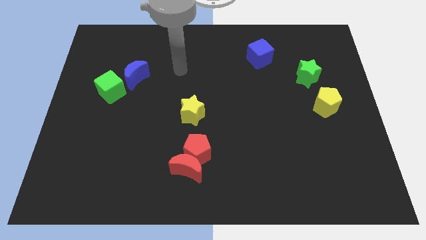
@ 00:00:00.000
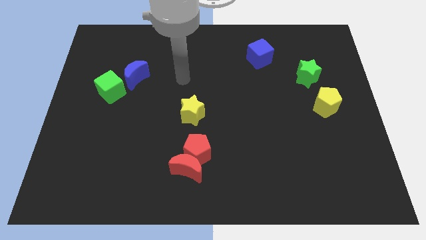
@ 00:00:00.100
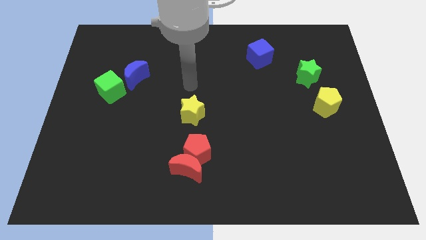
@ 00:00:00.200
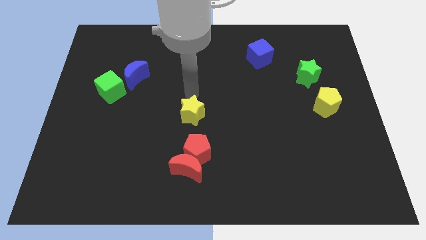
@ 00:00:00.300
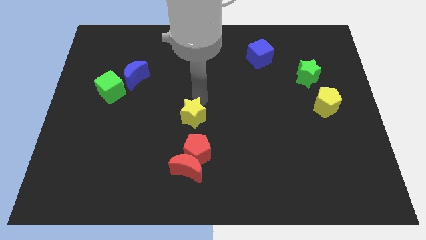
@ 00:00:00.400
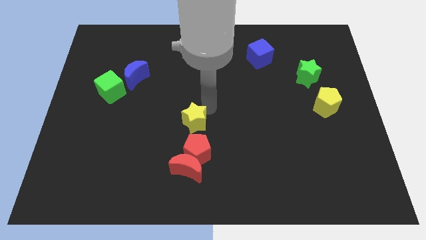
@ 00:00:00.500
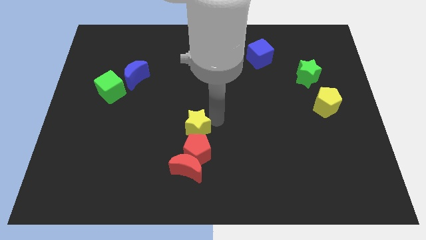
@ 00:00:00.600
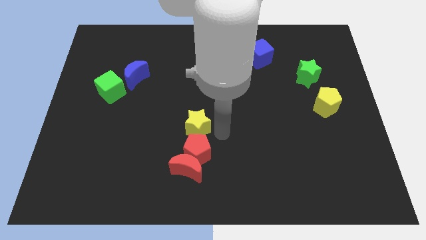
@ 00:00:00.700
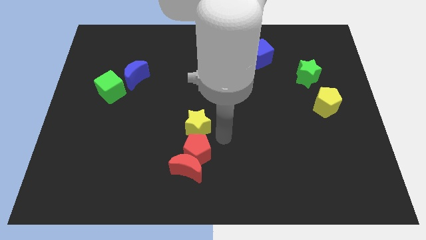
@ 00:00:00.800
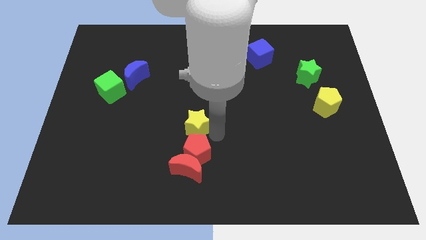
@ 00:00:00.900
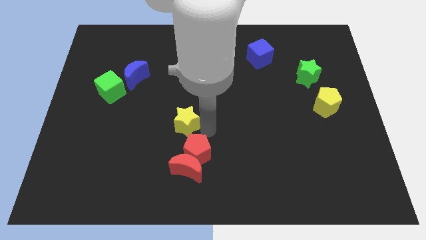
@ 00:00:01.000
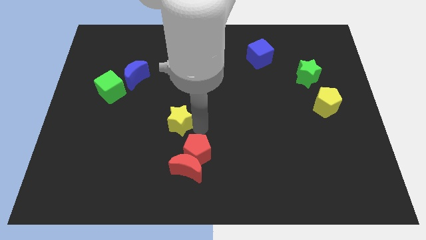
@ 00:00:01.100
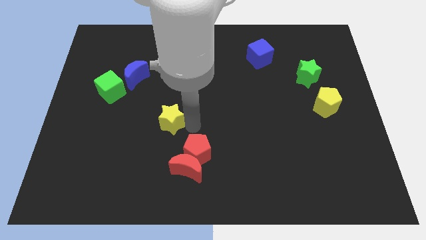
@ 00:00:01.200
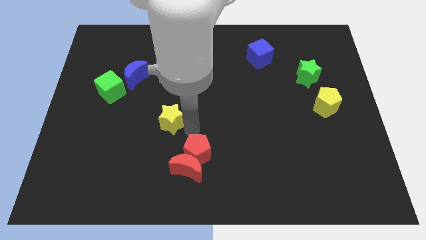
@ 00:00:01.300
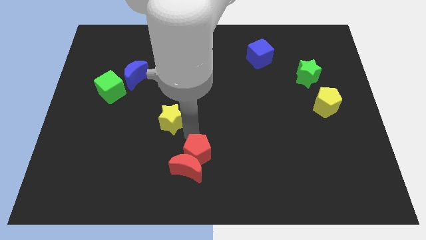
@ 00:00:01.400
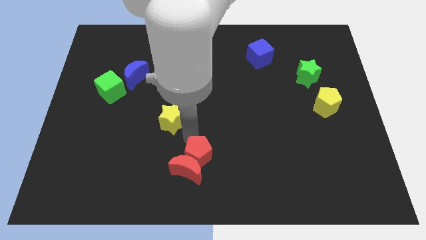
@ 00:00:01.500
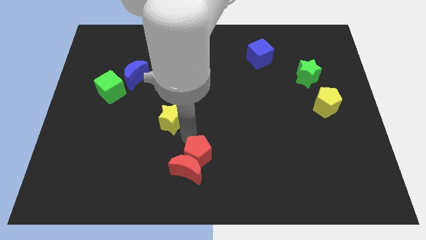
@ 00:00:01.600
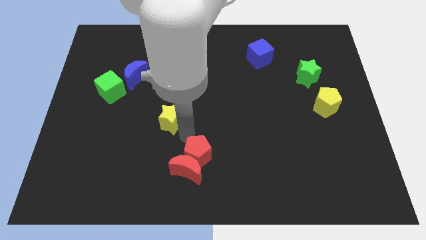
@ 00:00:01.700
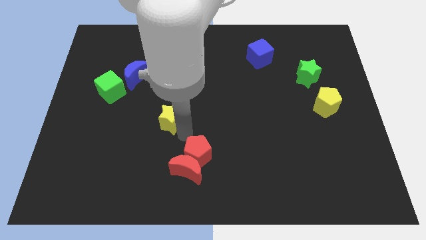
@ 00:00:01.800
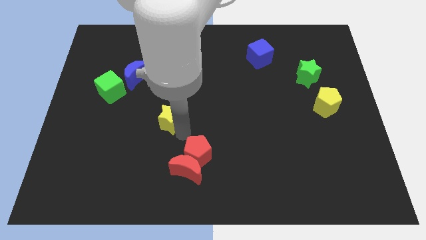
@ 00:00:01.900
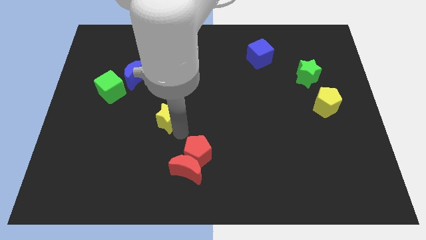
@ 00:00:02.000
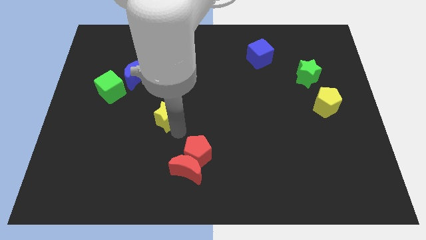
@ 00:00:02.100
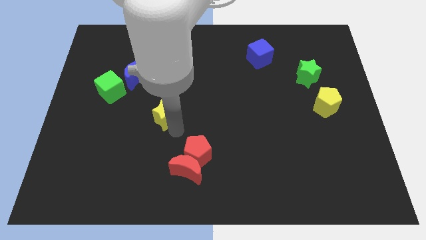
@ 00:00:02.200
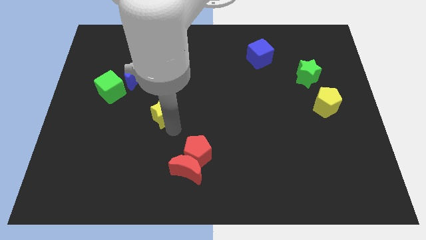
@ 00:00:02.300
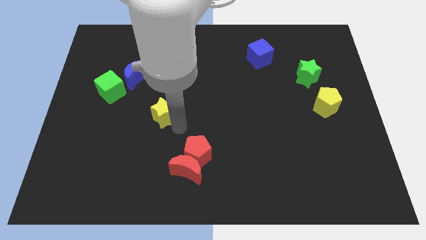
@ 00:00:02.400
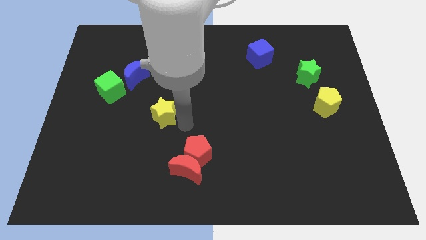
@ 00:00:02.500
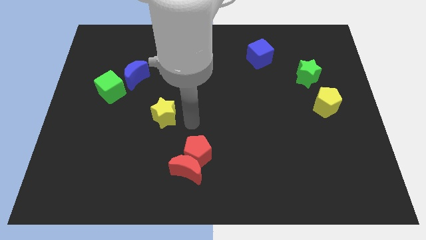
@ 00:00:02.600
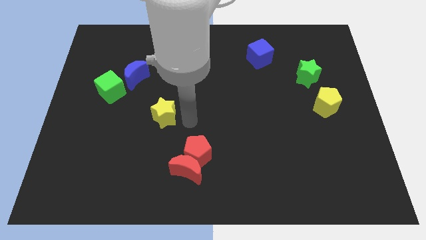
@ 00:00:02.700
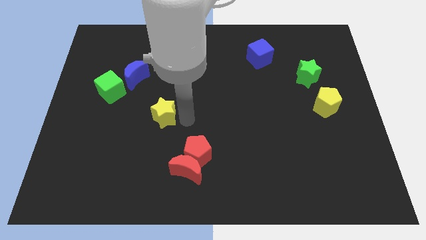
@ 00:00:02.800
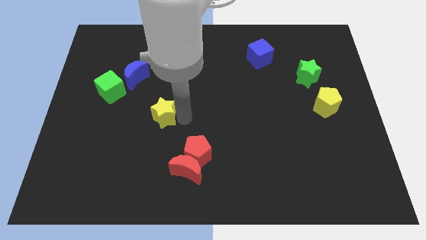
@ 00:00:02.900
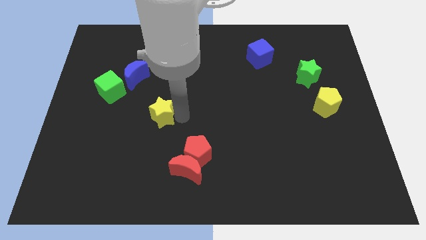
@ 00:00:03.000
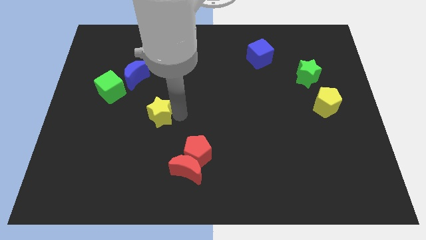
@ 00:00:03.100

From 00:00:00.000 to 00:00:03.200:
slightly slide the yellow star left

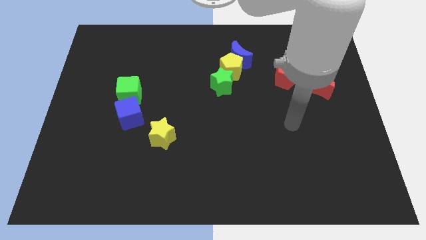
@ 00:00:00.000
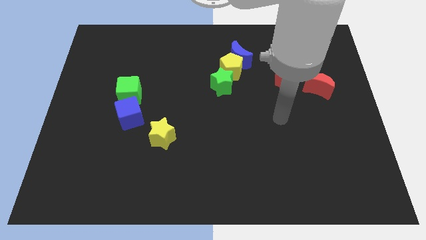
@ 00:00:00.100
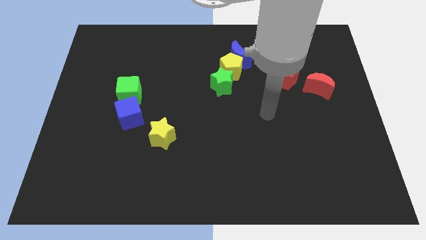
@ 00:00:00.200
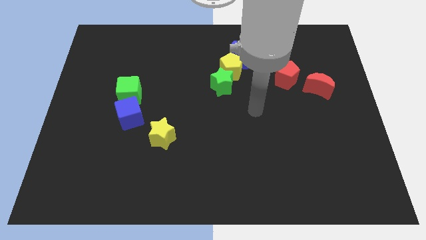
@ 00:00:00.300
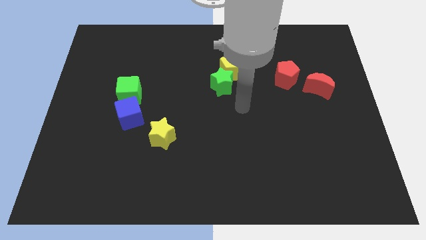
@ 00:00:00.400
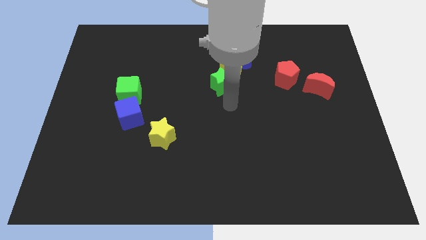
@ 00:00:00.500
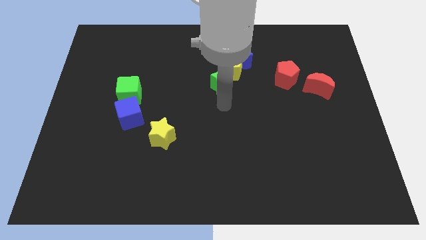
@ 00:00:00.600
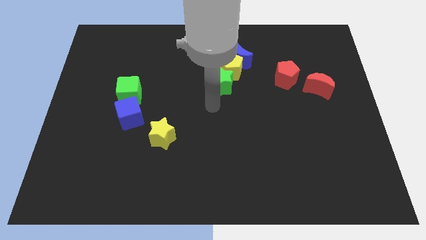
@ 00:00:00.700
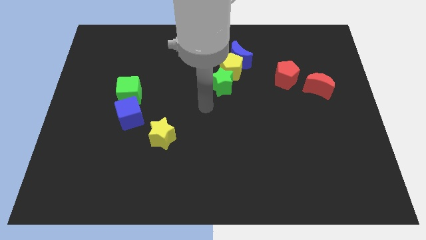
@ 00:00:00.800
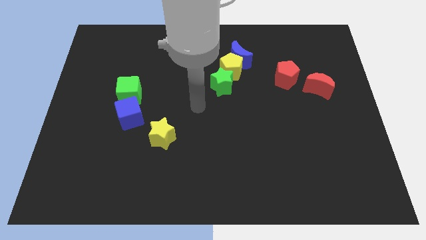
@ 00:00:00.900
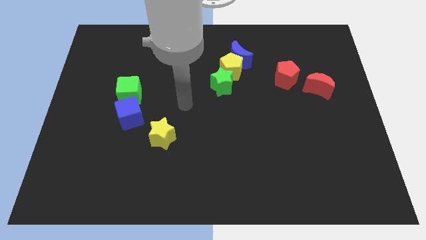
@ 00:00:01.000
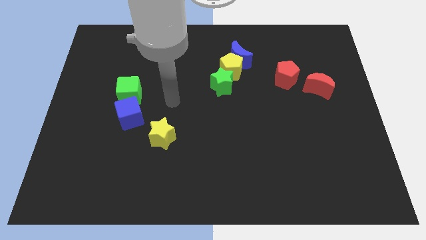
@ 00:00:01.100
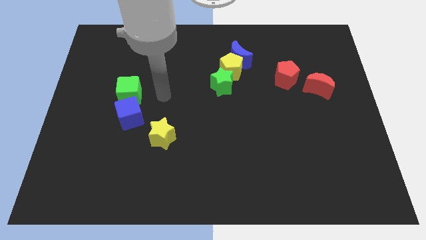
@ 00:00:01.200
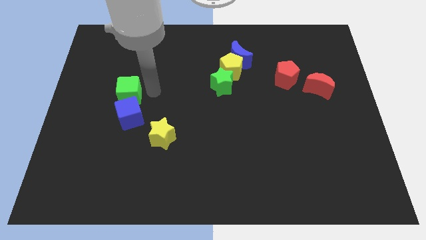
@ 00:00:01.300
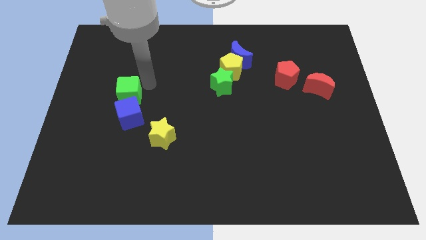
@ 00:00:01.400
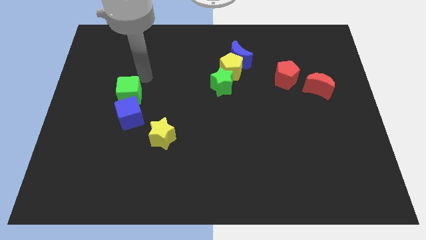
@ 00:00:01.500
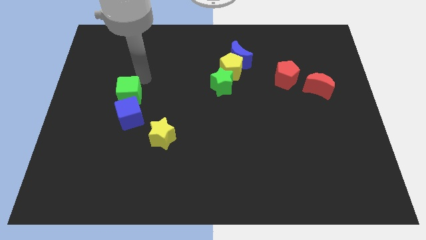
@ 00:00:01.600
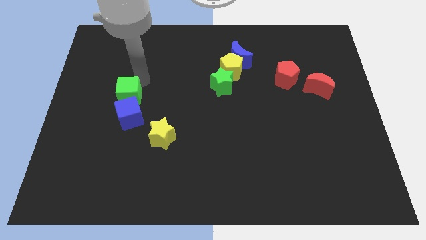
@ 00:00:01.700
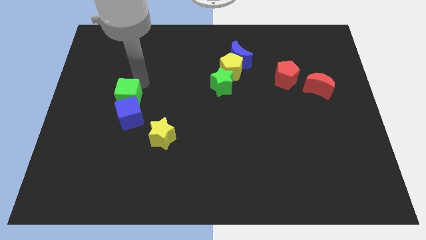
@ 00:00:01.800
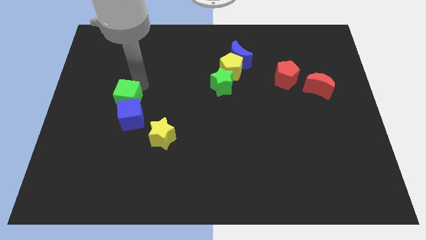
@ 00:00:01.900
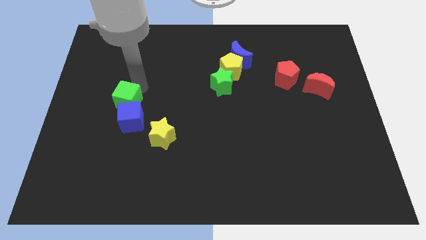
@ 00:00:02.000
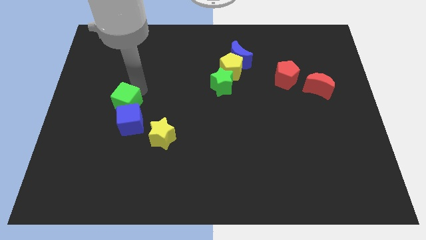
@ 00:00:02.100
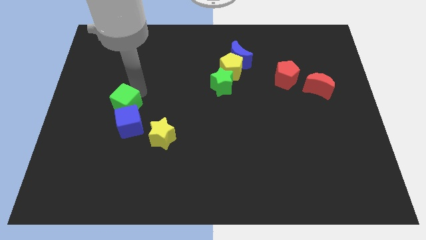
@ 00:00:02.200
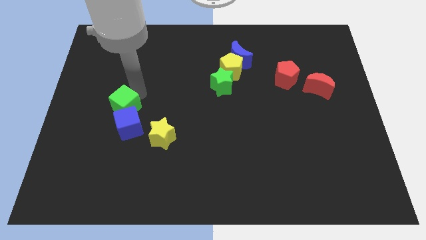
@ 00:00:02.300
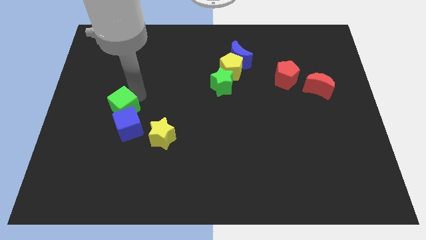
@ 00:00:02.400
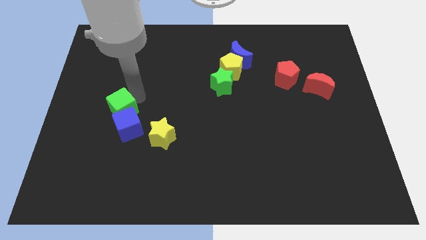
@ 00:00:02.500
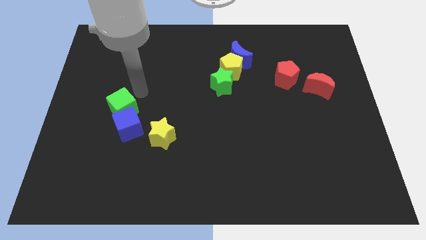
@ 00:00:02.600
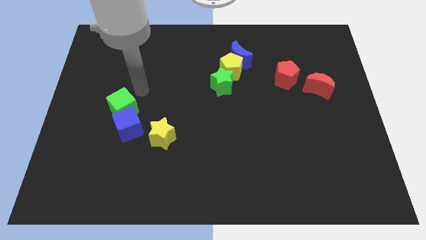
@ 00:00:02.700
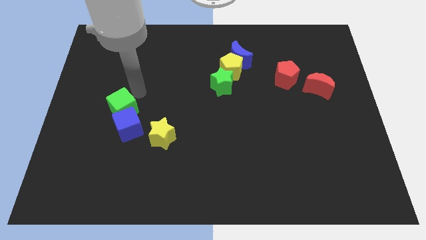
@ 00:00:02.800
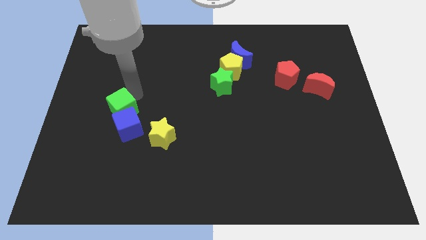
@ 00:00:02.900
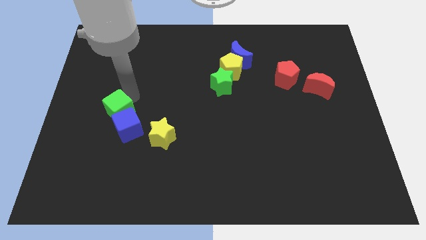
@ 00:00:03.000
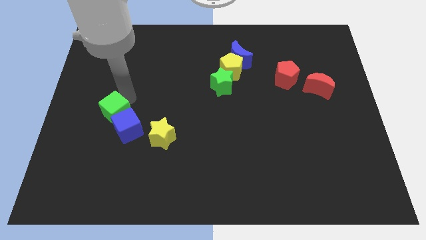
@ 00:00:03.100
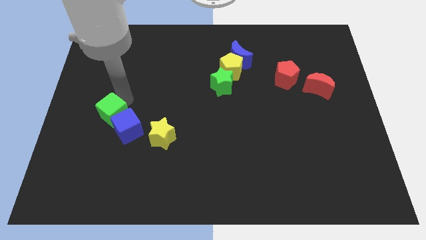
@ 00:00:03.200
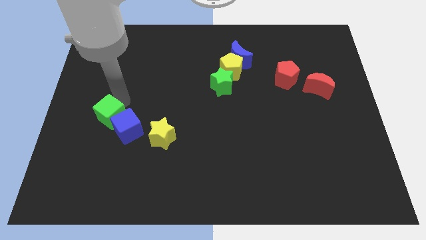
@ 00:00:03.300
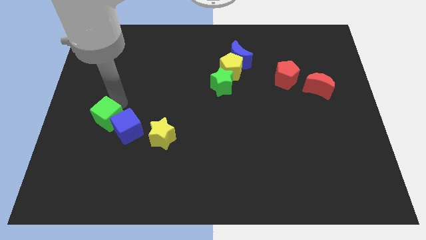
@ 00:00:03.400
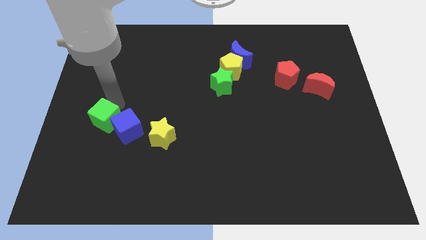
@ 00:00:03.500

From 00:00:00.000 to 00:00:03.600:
push the green cube a little bit down

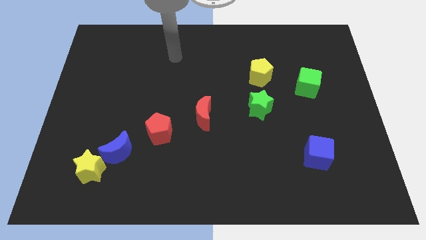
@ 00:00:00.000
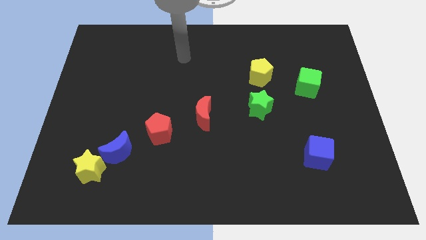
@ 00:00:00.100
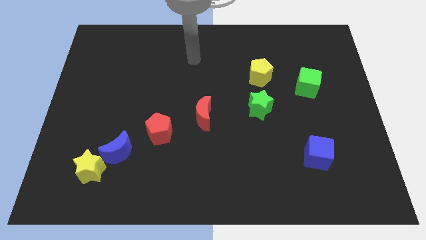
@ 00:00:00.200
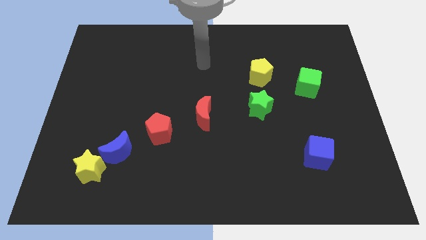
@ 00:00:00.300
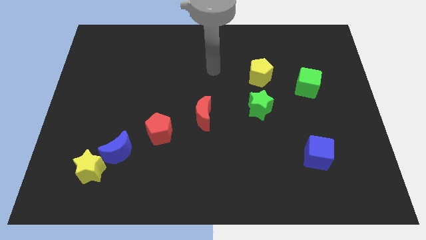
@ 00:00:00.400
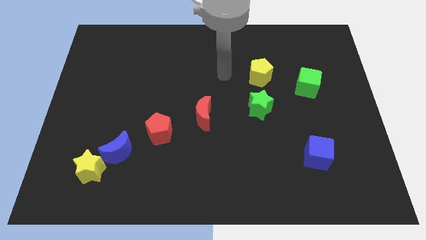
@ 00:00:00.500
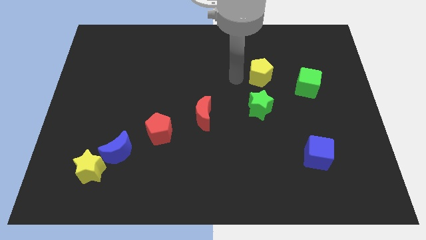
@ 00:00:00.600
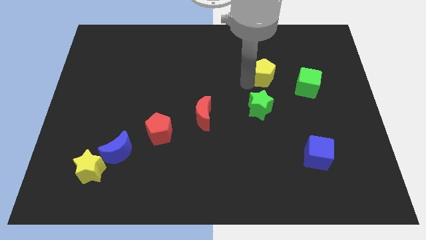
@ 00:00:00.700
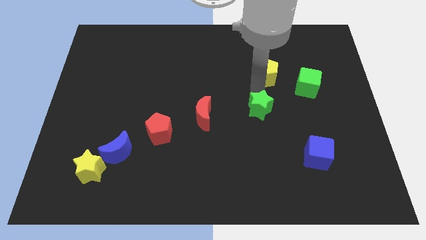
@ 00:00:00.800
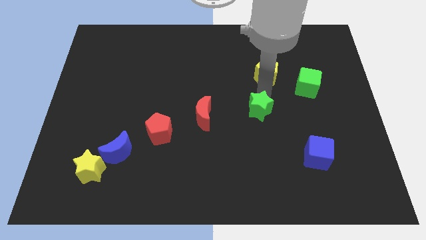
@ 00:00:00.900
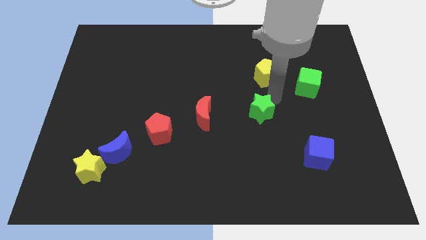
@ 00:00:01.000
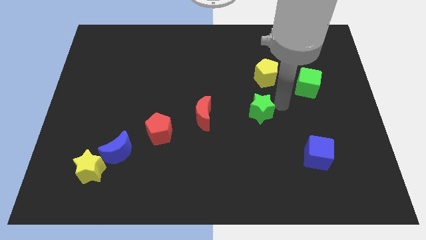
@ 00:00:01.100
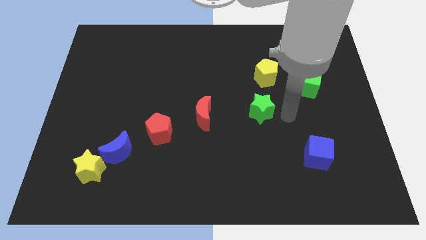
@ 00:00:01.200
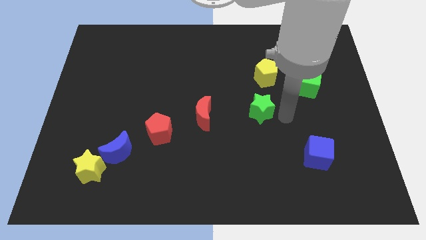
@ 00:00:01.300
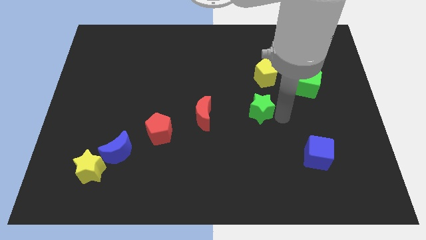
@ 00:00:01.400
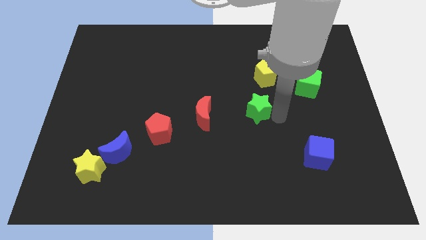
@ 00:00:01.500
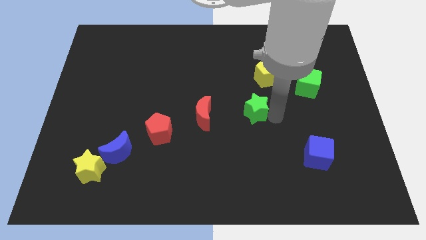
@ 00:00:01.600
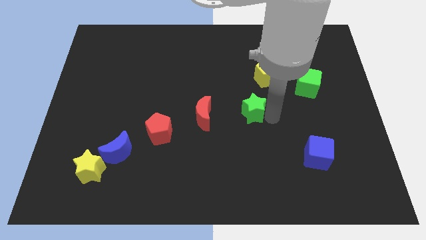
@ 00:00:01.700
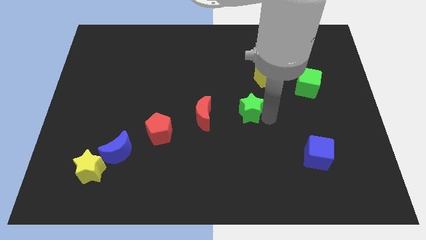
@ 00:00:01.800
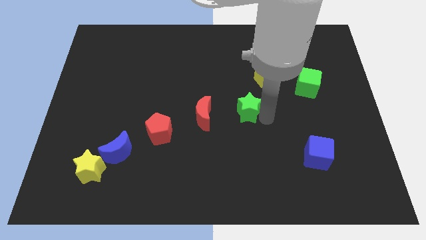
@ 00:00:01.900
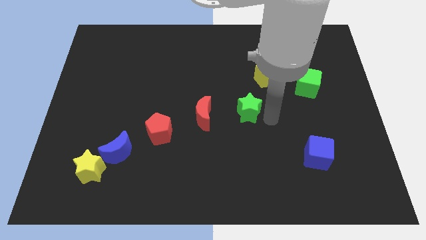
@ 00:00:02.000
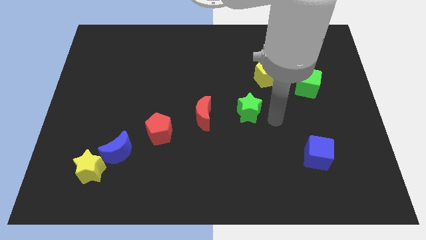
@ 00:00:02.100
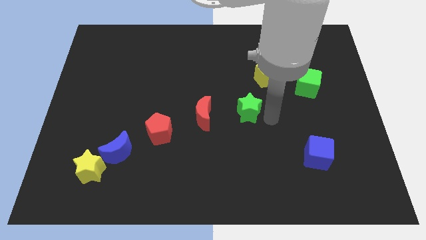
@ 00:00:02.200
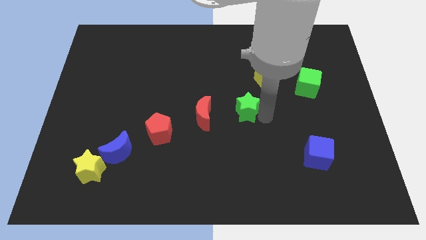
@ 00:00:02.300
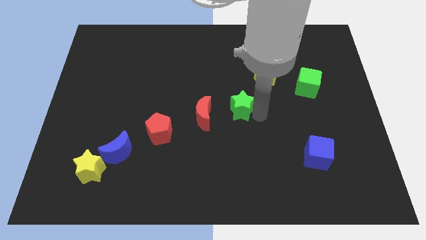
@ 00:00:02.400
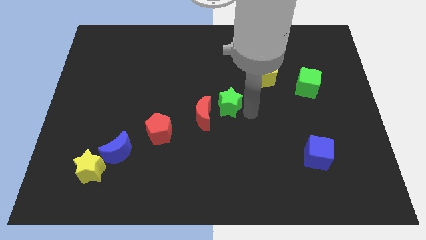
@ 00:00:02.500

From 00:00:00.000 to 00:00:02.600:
slide the green star to the left a bit
